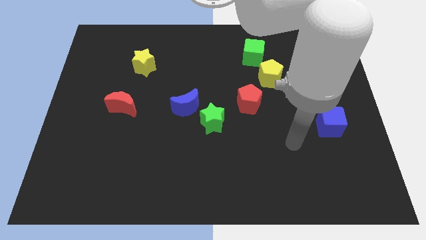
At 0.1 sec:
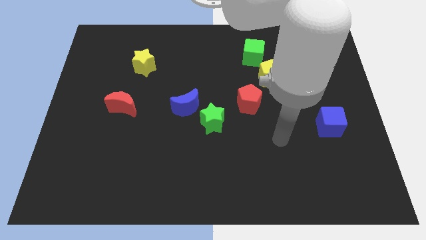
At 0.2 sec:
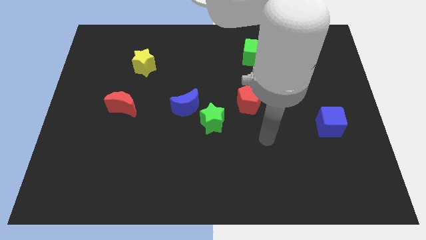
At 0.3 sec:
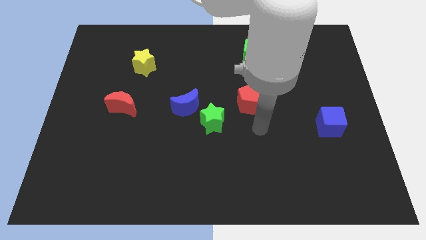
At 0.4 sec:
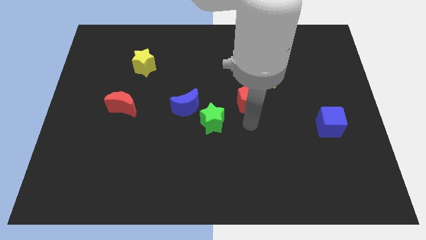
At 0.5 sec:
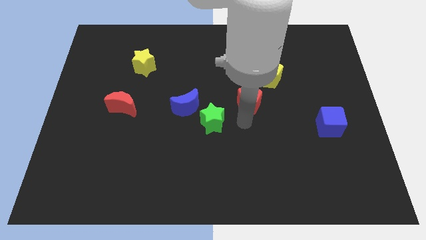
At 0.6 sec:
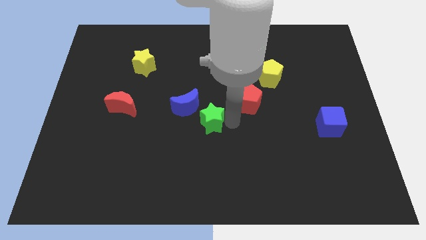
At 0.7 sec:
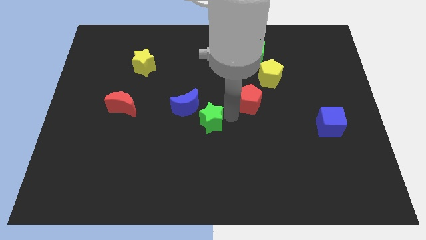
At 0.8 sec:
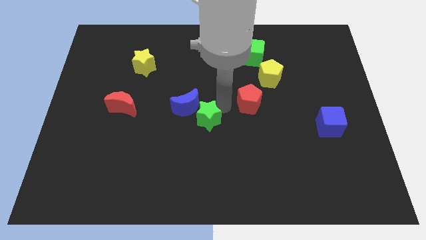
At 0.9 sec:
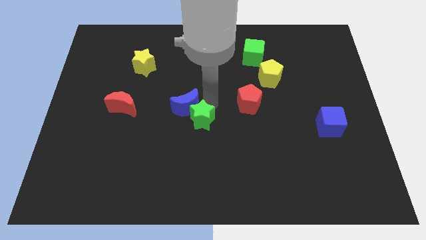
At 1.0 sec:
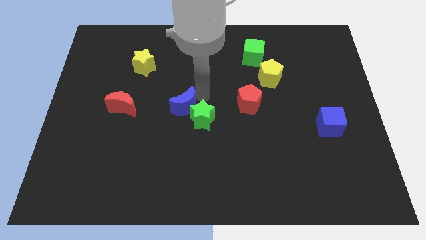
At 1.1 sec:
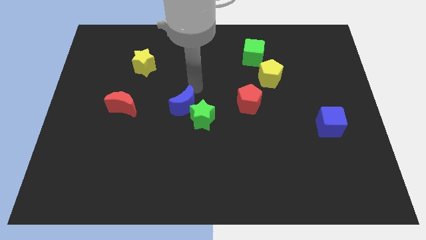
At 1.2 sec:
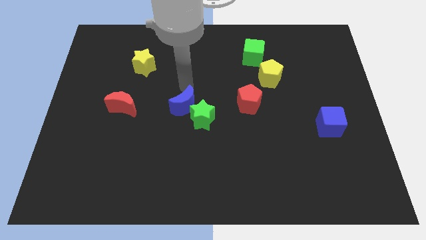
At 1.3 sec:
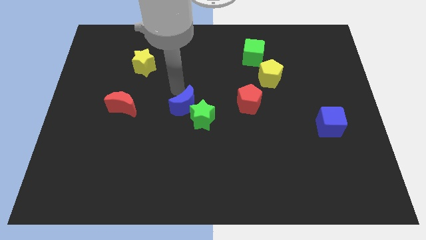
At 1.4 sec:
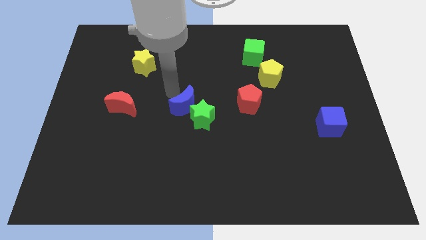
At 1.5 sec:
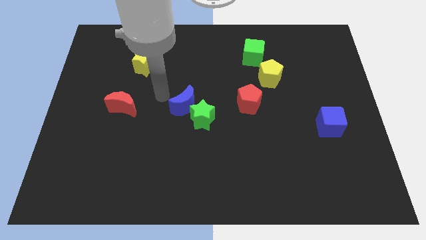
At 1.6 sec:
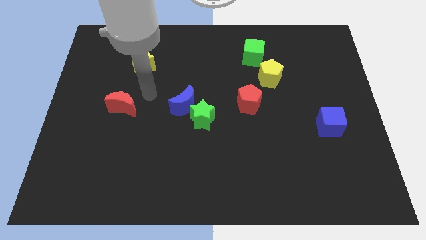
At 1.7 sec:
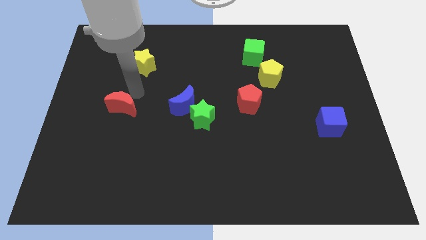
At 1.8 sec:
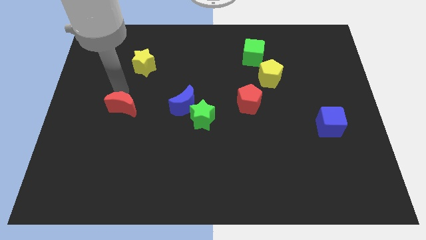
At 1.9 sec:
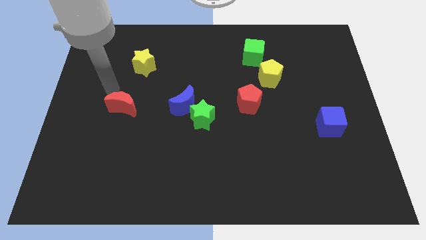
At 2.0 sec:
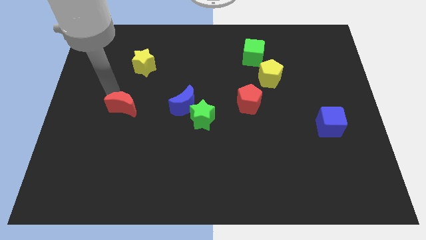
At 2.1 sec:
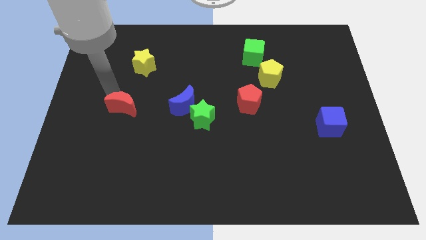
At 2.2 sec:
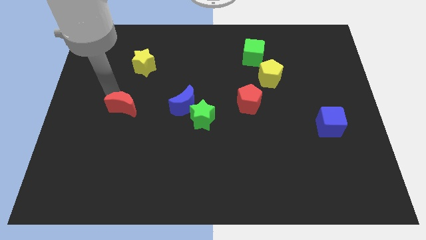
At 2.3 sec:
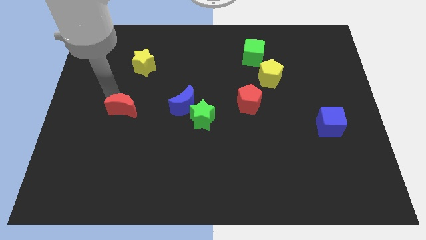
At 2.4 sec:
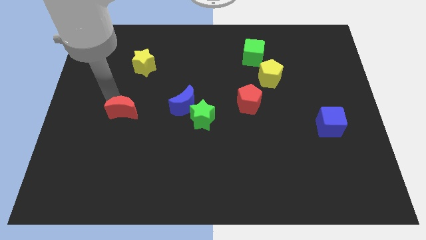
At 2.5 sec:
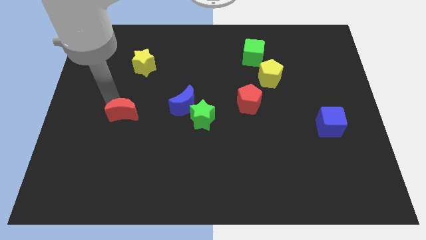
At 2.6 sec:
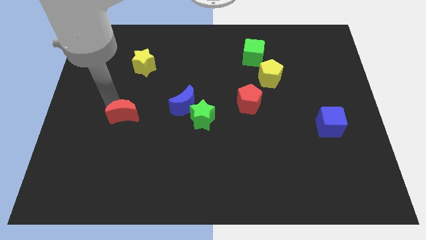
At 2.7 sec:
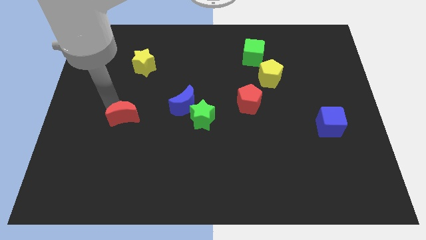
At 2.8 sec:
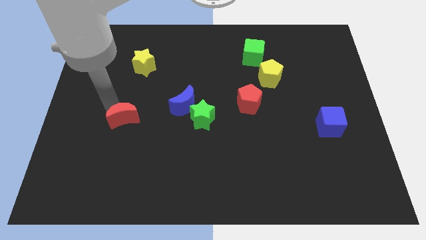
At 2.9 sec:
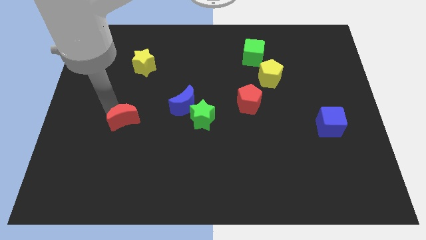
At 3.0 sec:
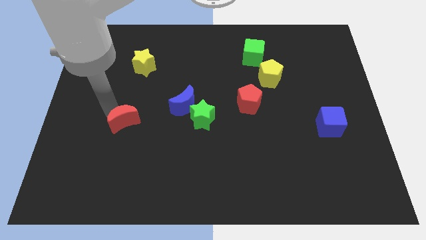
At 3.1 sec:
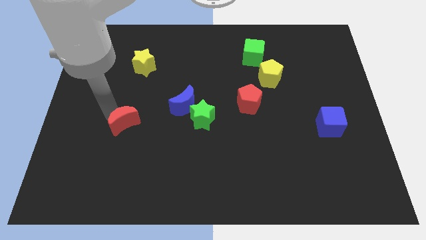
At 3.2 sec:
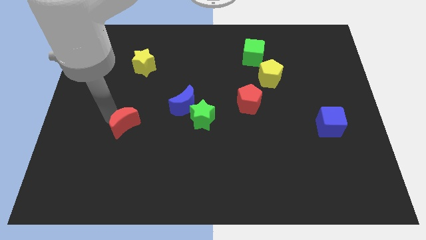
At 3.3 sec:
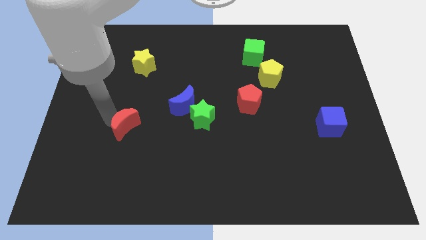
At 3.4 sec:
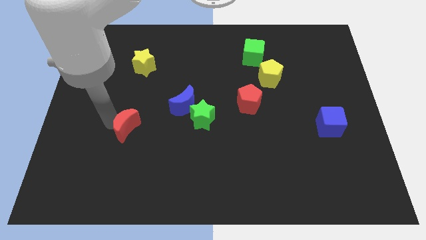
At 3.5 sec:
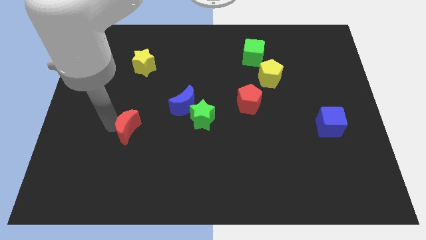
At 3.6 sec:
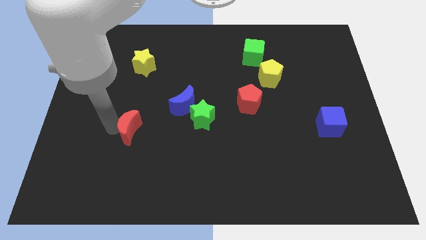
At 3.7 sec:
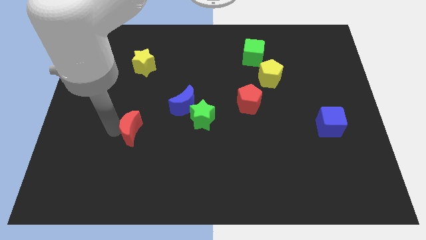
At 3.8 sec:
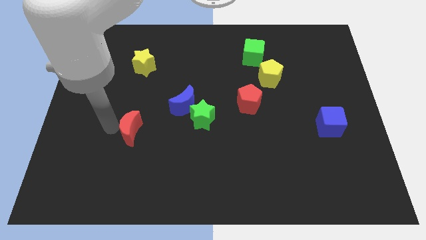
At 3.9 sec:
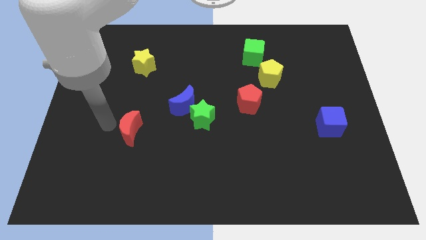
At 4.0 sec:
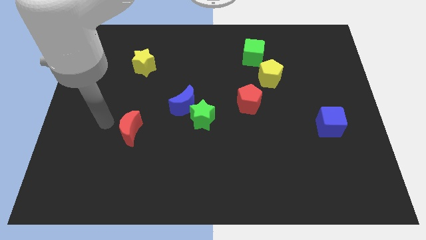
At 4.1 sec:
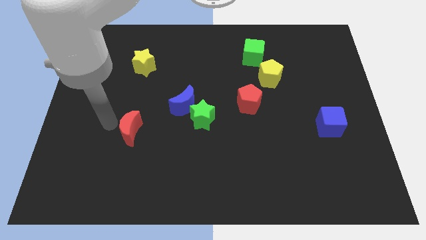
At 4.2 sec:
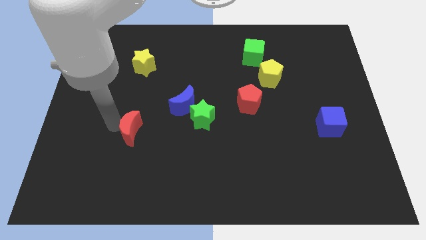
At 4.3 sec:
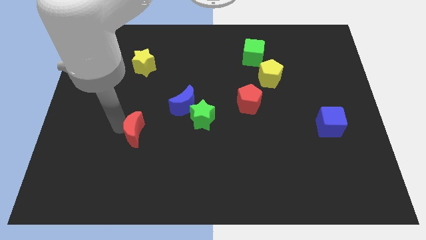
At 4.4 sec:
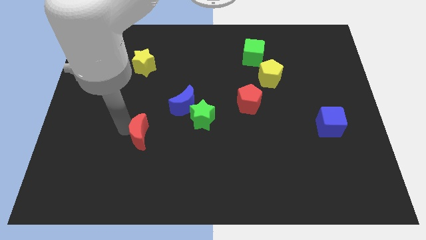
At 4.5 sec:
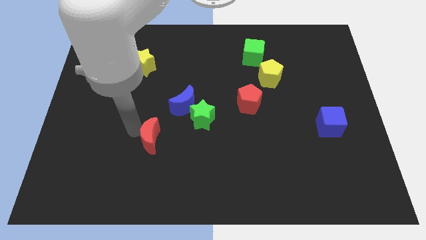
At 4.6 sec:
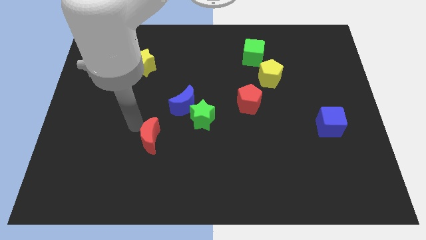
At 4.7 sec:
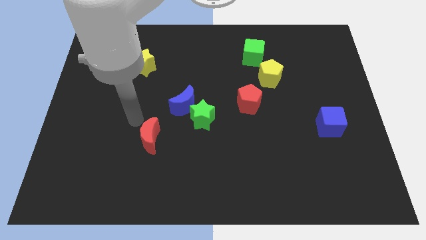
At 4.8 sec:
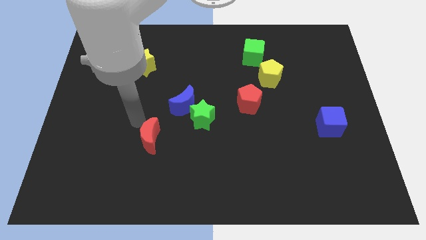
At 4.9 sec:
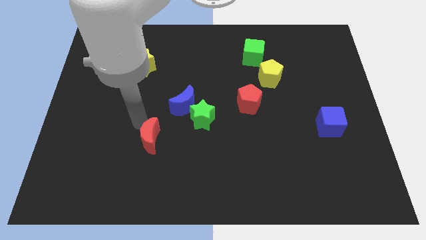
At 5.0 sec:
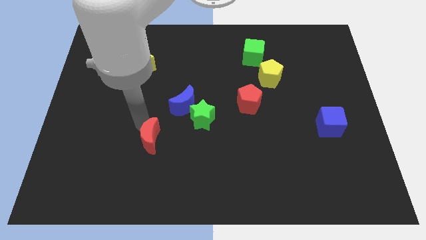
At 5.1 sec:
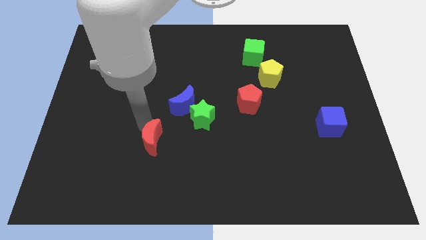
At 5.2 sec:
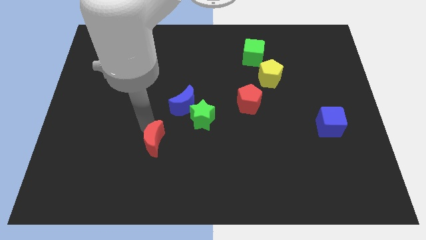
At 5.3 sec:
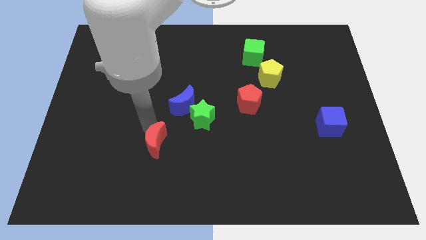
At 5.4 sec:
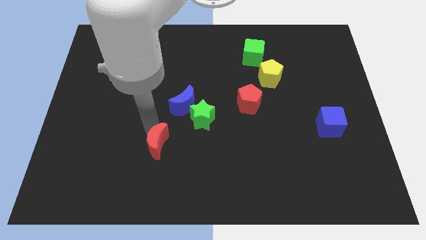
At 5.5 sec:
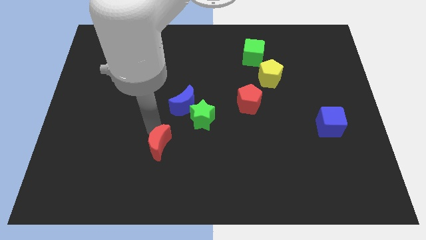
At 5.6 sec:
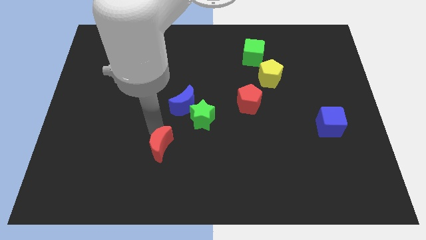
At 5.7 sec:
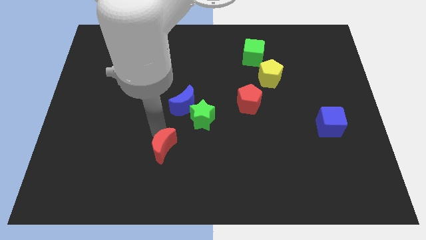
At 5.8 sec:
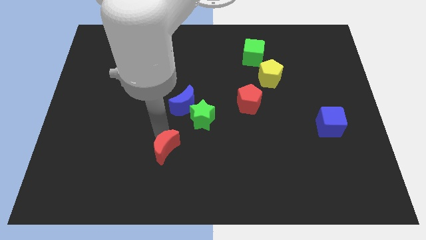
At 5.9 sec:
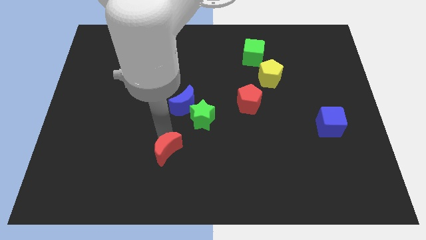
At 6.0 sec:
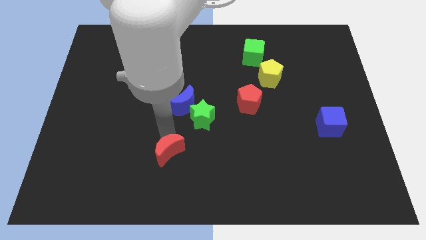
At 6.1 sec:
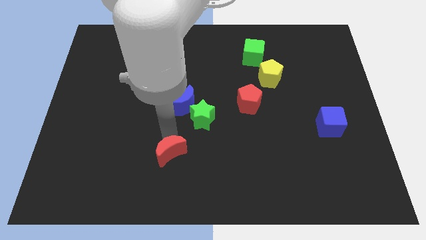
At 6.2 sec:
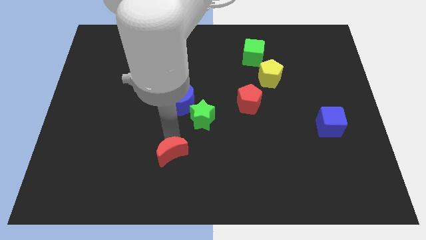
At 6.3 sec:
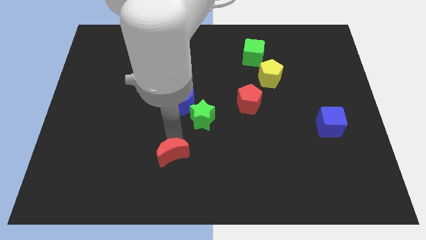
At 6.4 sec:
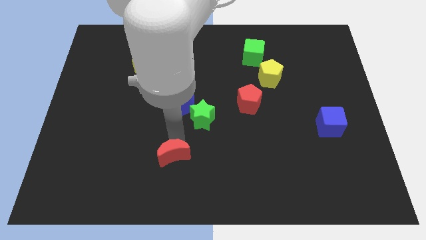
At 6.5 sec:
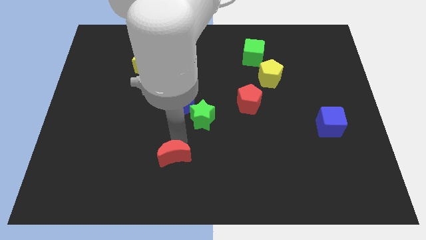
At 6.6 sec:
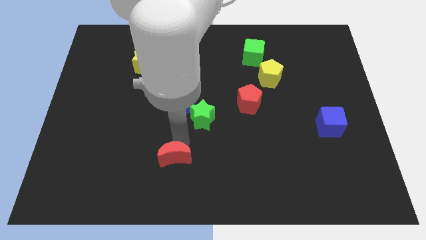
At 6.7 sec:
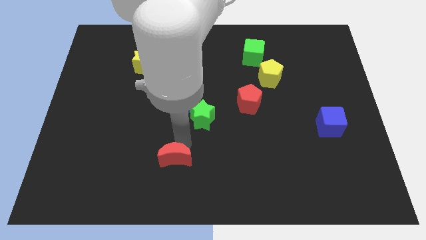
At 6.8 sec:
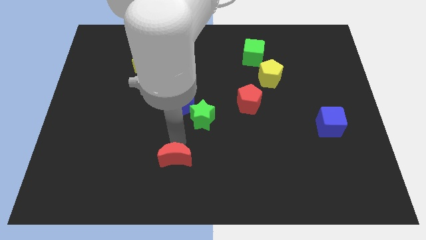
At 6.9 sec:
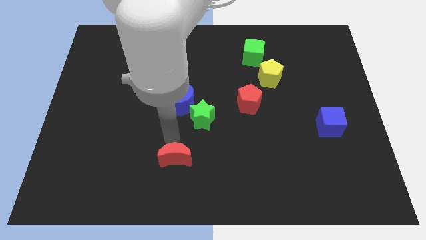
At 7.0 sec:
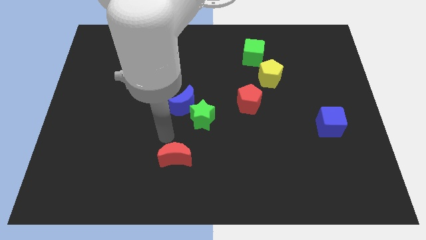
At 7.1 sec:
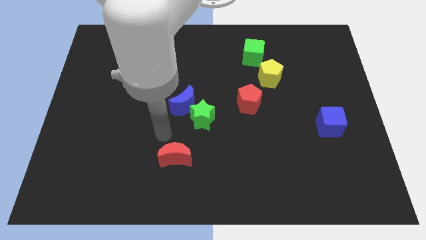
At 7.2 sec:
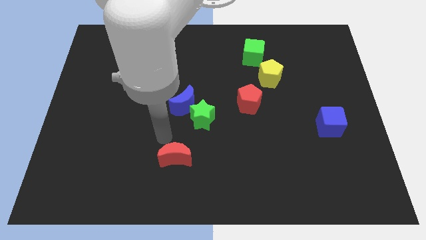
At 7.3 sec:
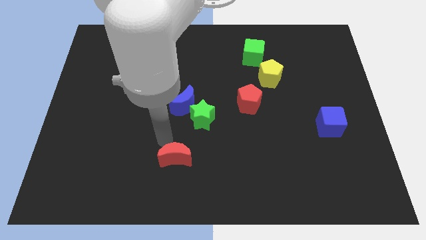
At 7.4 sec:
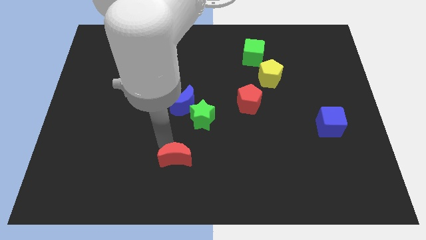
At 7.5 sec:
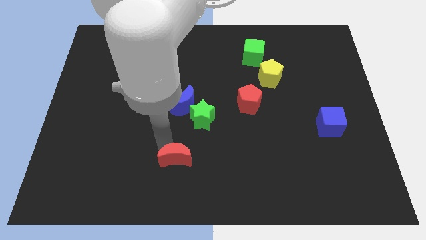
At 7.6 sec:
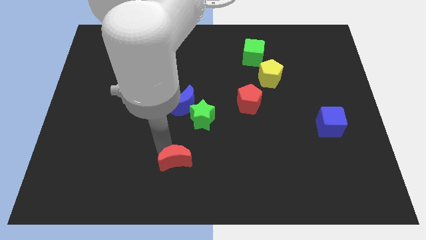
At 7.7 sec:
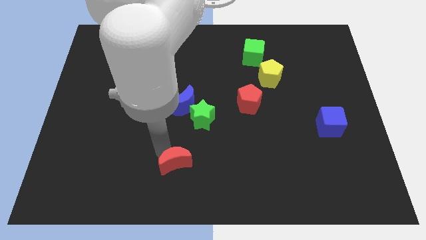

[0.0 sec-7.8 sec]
slide the red moon to the bottom side
